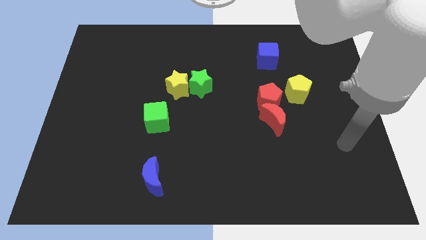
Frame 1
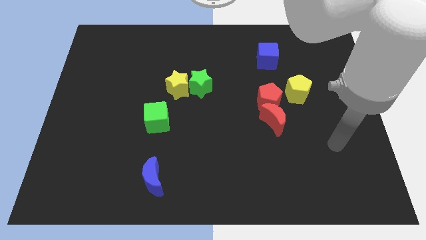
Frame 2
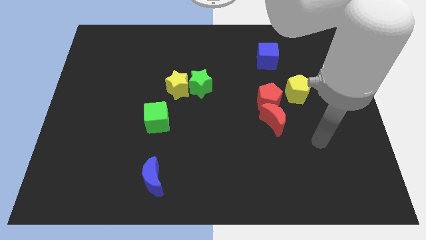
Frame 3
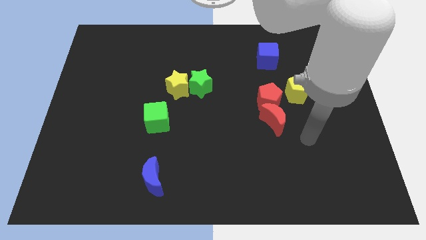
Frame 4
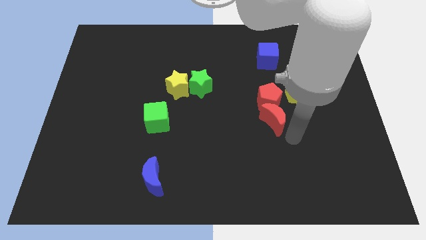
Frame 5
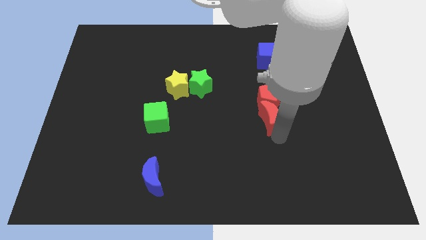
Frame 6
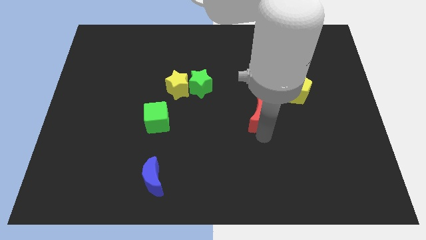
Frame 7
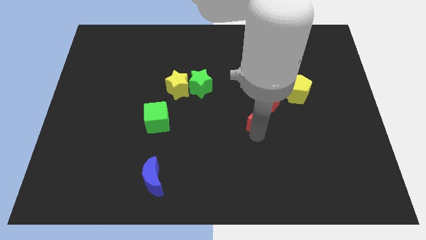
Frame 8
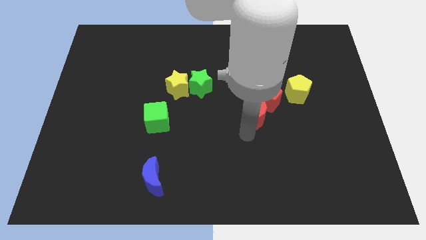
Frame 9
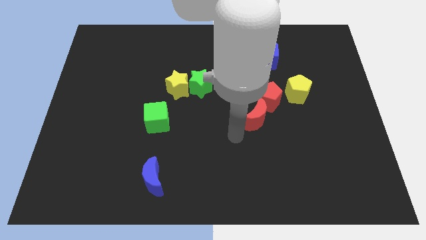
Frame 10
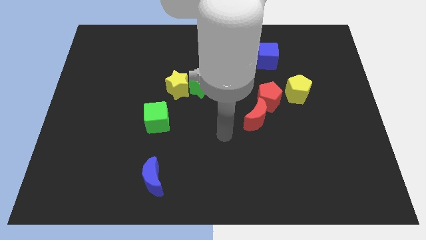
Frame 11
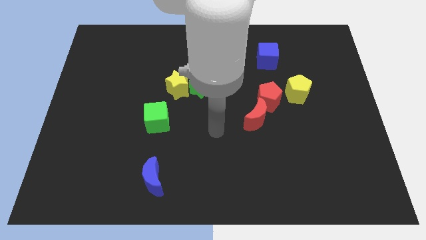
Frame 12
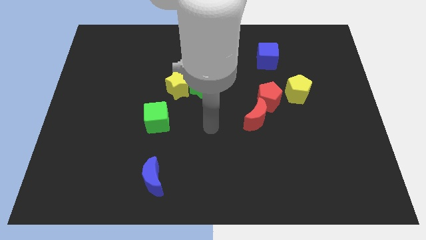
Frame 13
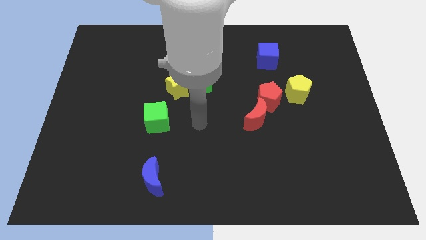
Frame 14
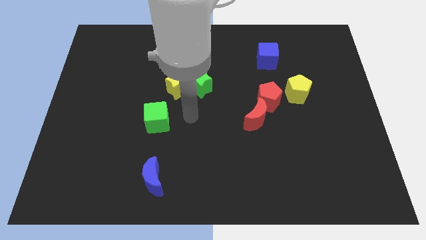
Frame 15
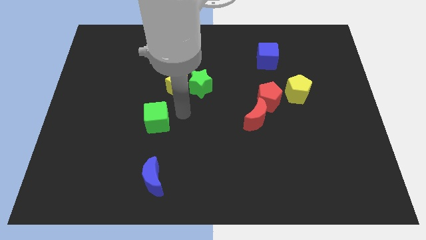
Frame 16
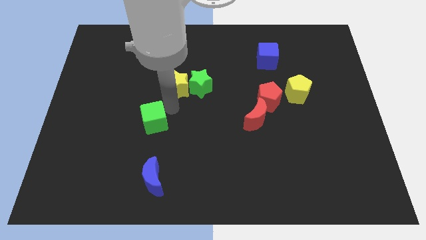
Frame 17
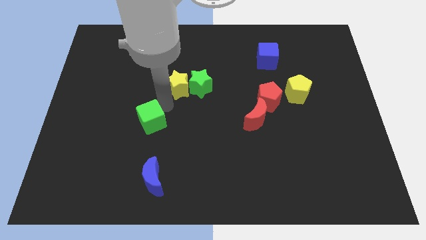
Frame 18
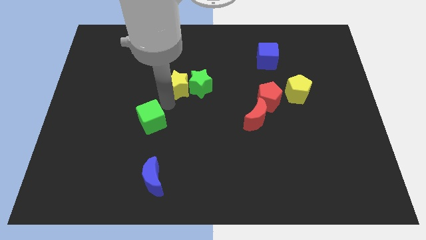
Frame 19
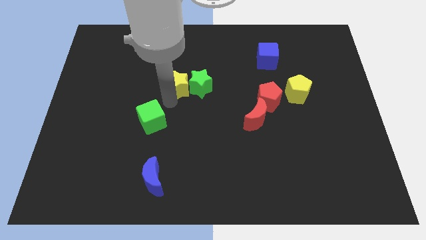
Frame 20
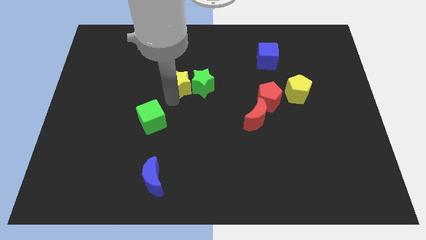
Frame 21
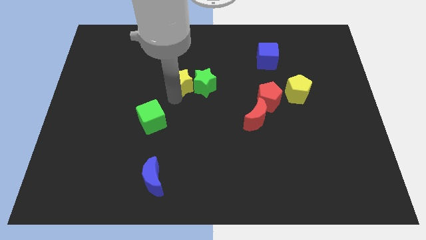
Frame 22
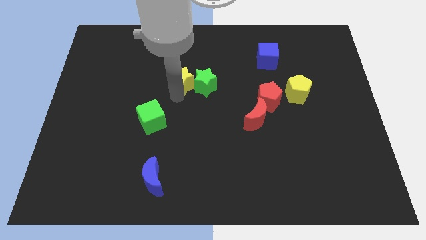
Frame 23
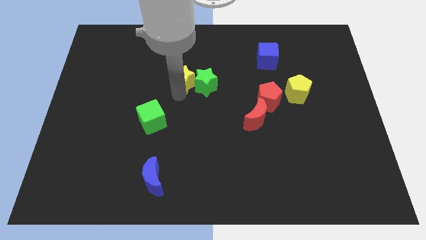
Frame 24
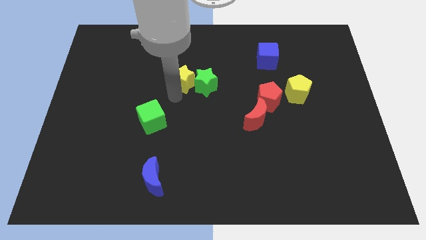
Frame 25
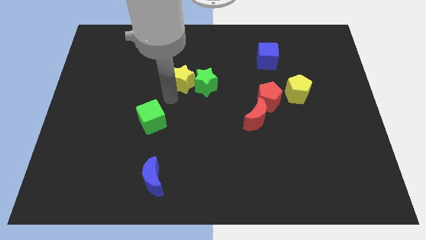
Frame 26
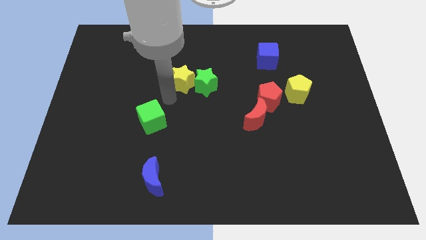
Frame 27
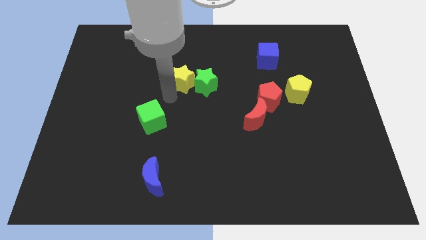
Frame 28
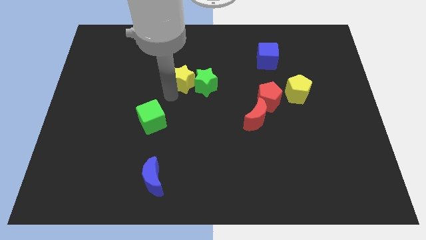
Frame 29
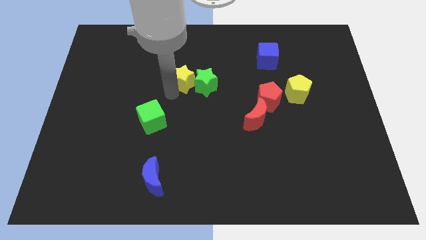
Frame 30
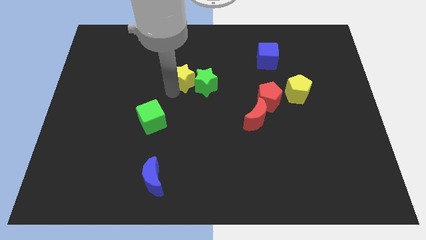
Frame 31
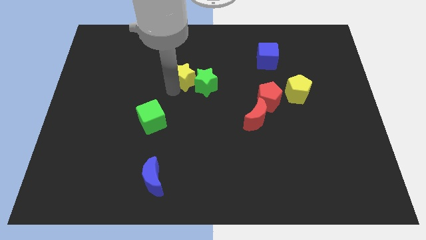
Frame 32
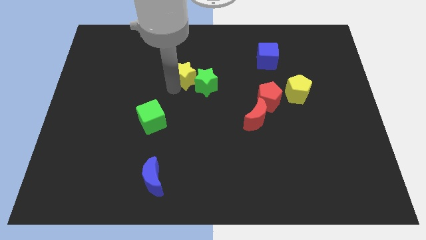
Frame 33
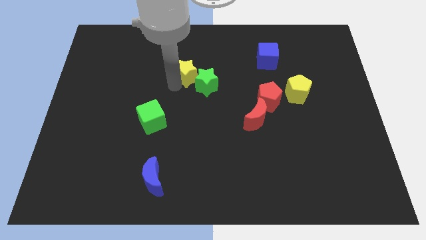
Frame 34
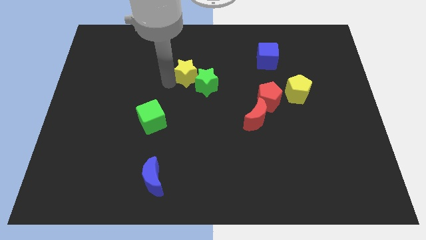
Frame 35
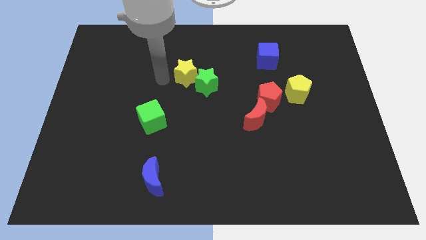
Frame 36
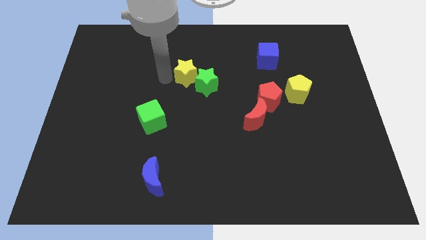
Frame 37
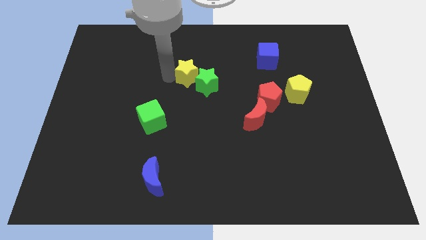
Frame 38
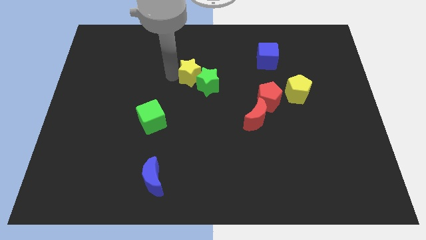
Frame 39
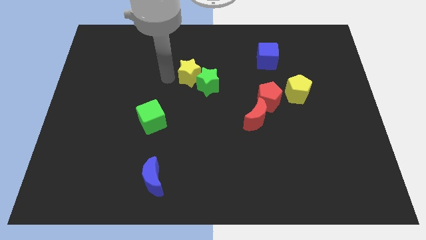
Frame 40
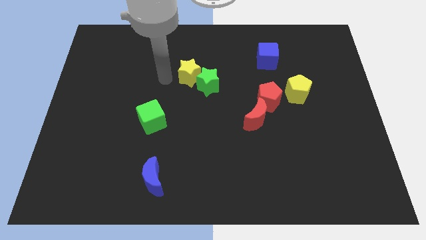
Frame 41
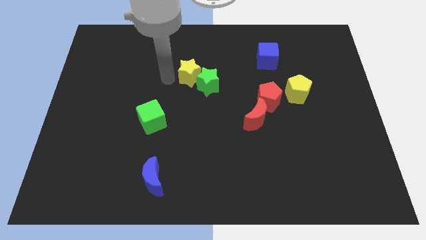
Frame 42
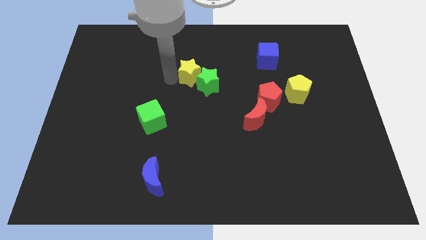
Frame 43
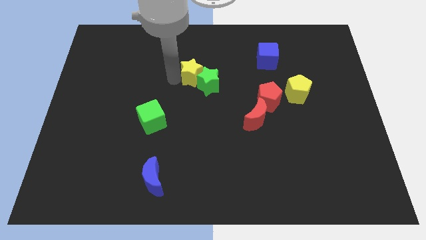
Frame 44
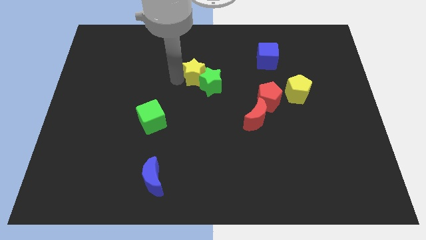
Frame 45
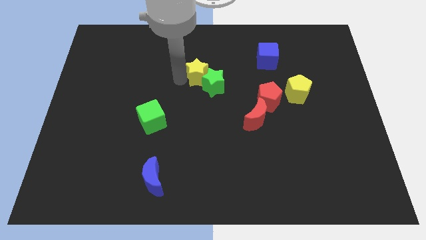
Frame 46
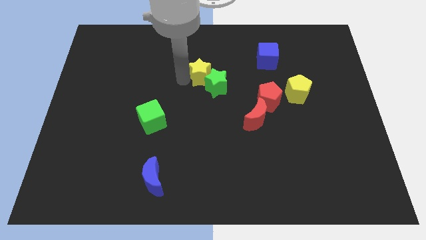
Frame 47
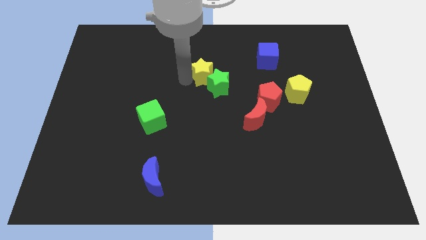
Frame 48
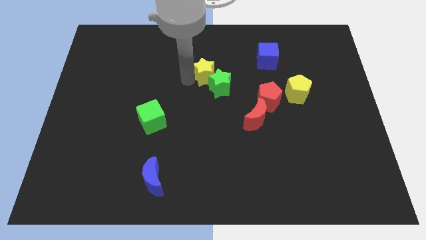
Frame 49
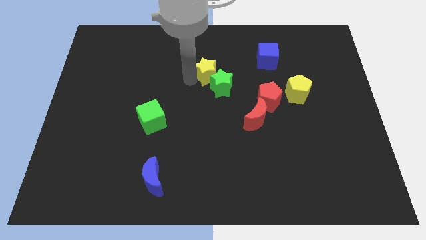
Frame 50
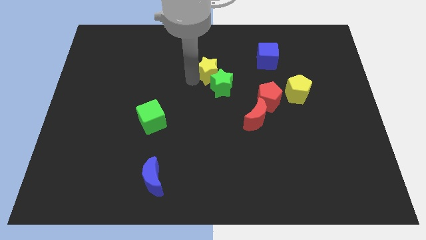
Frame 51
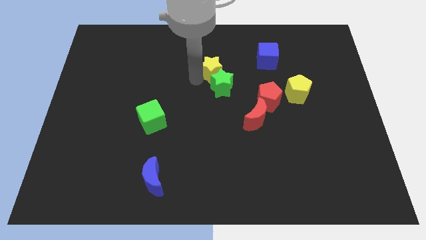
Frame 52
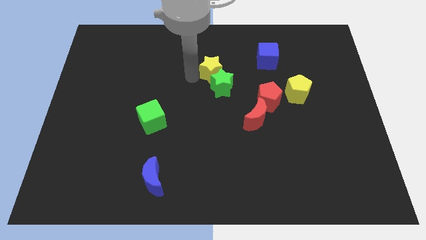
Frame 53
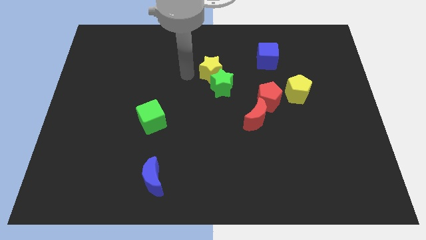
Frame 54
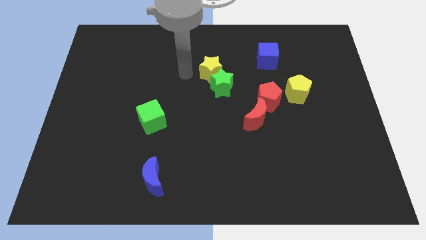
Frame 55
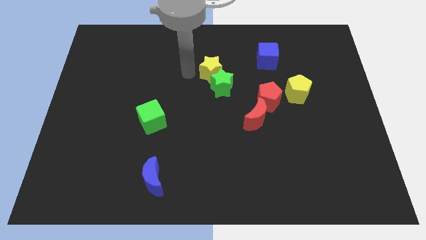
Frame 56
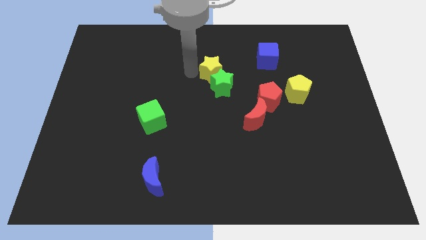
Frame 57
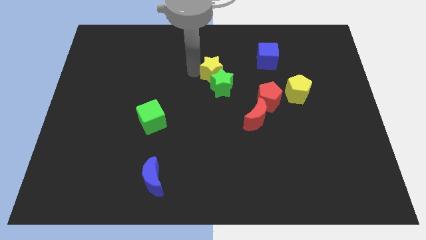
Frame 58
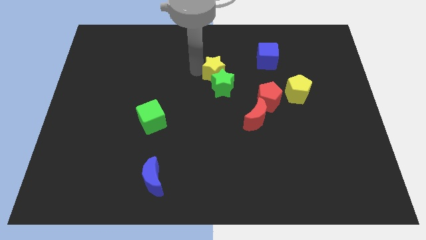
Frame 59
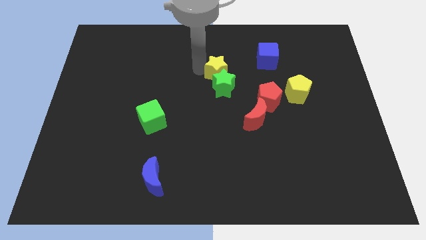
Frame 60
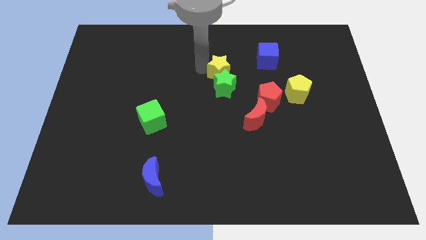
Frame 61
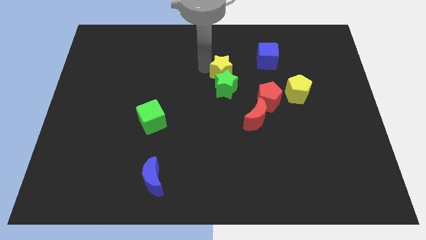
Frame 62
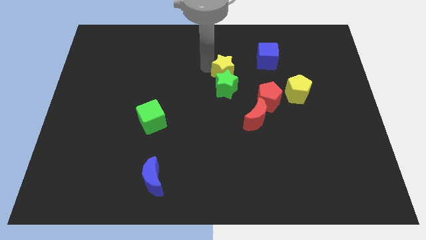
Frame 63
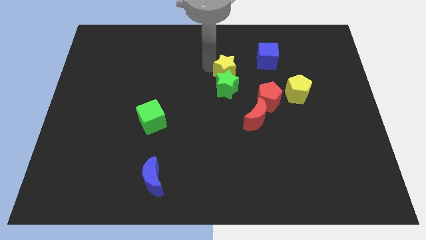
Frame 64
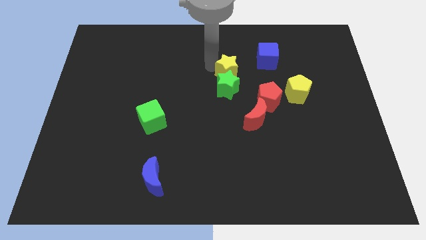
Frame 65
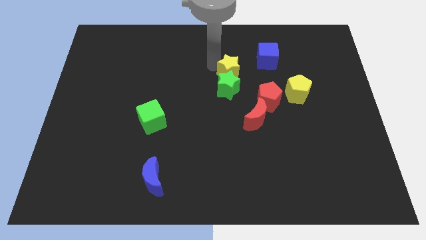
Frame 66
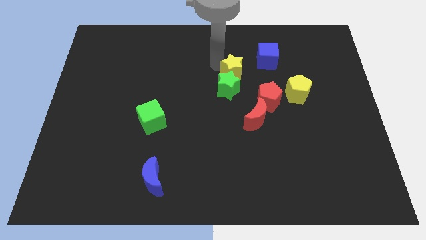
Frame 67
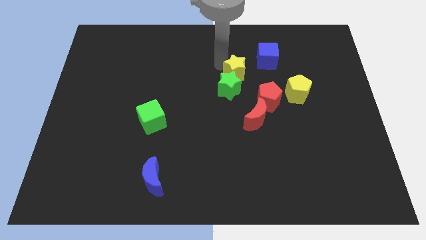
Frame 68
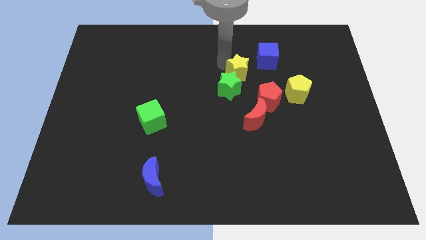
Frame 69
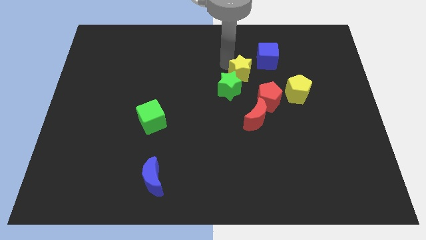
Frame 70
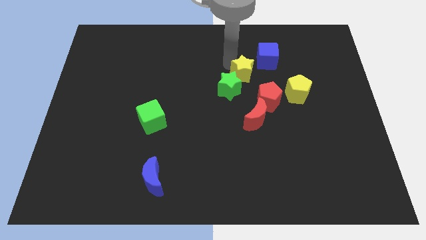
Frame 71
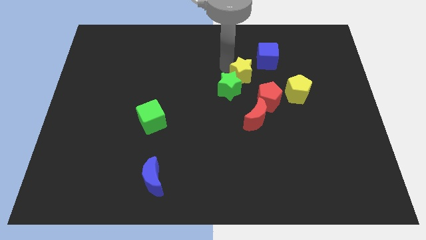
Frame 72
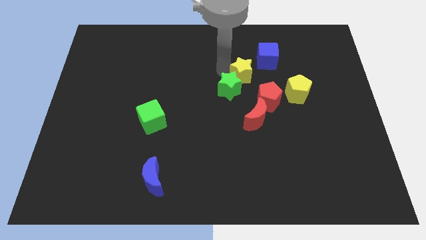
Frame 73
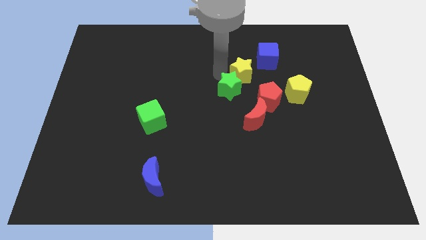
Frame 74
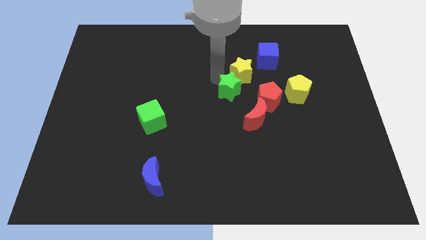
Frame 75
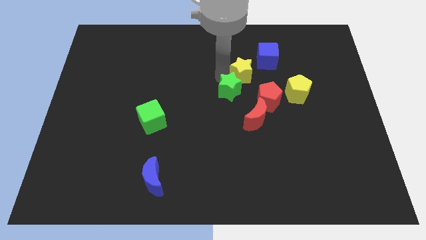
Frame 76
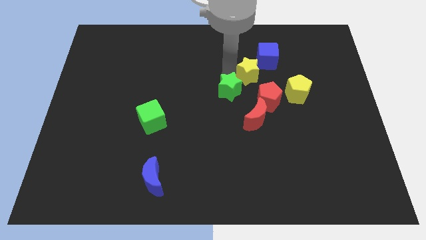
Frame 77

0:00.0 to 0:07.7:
put the yellow star above the red pentagon
